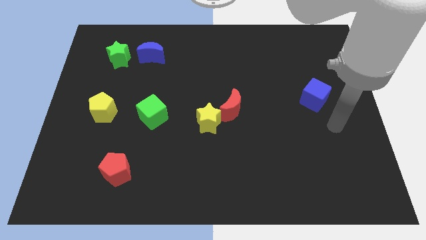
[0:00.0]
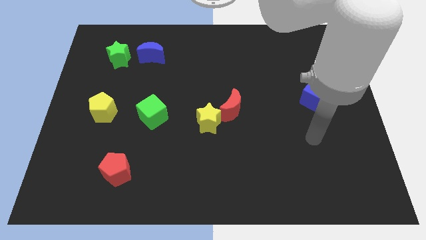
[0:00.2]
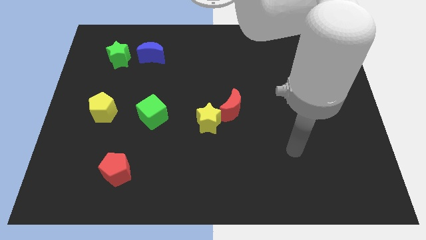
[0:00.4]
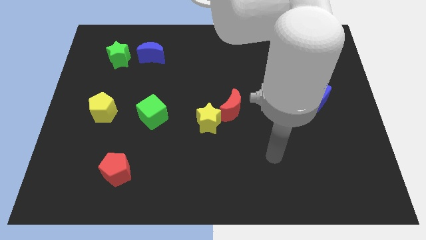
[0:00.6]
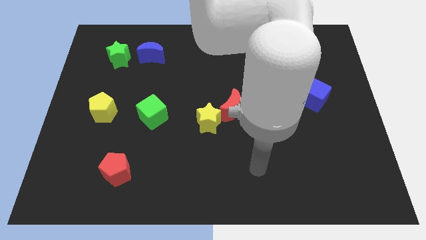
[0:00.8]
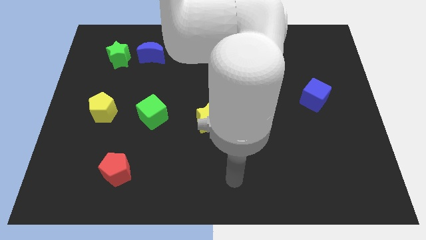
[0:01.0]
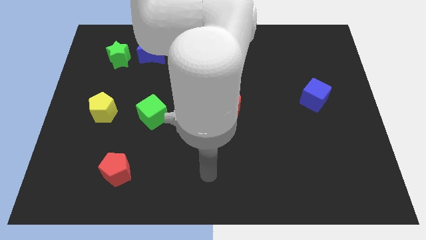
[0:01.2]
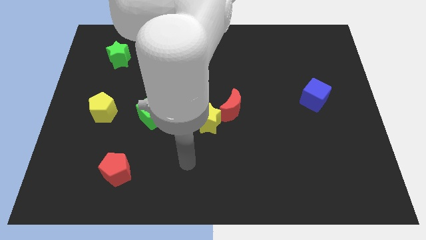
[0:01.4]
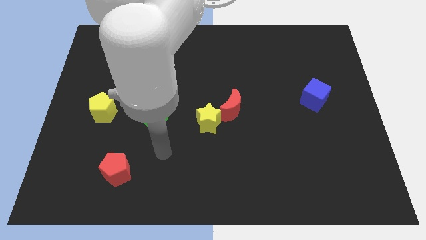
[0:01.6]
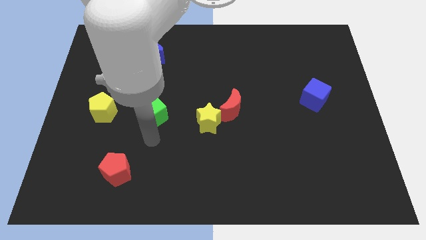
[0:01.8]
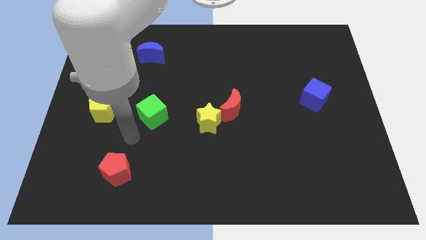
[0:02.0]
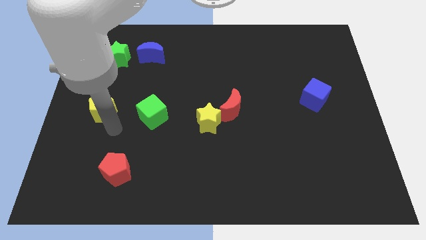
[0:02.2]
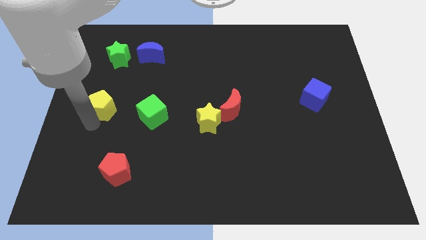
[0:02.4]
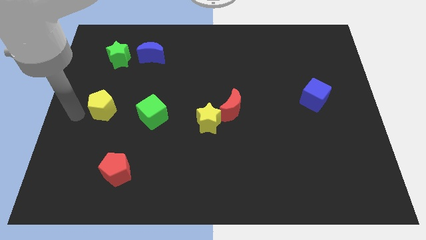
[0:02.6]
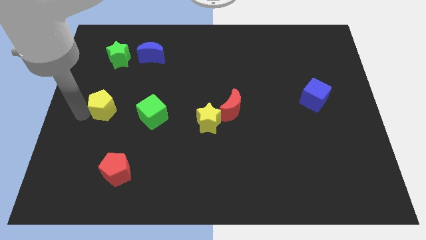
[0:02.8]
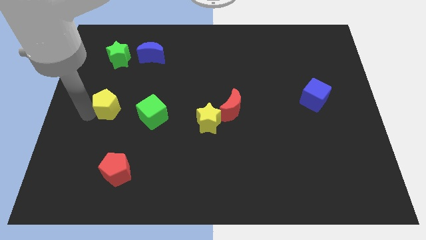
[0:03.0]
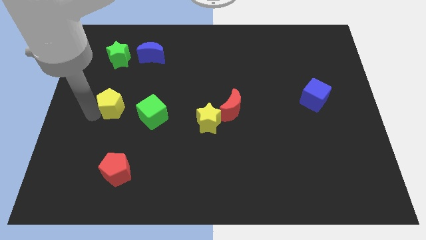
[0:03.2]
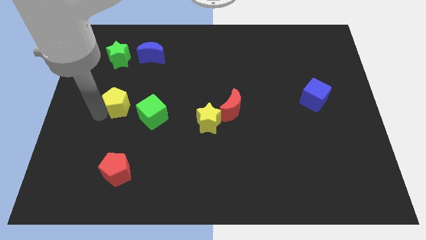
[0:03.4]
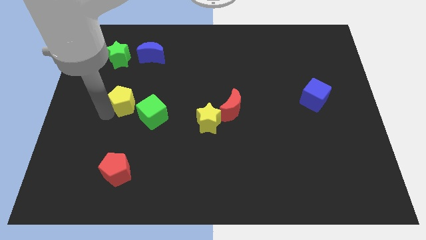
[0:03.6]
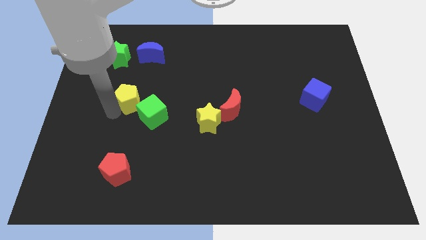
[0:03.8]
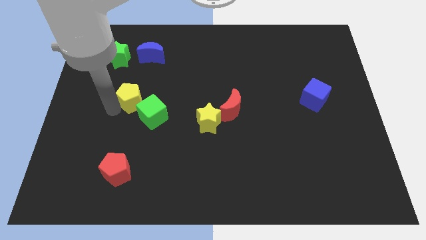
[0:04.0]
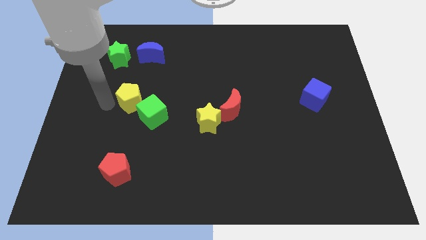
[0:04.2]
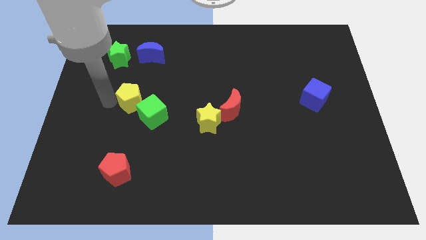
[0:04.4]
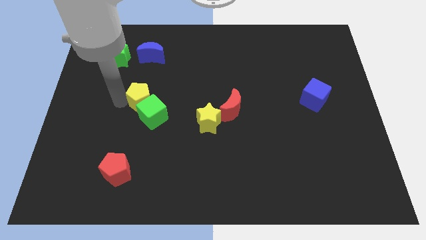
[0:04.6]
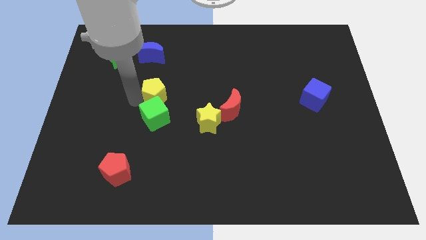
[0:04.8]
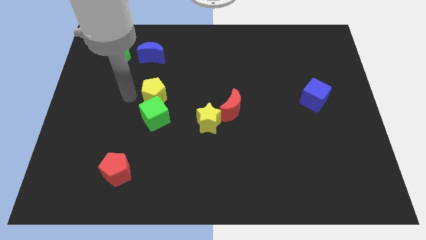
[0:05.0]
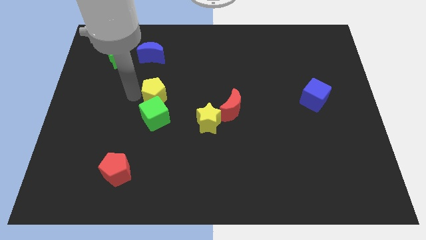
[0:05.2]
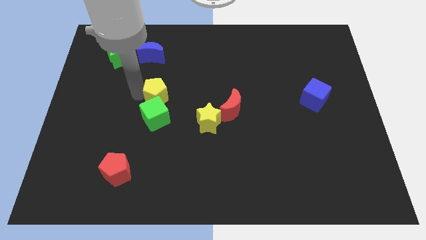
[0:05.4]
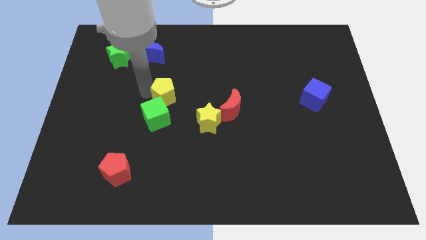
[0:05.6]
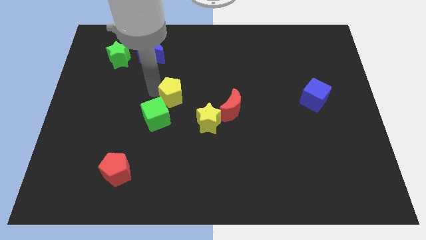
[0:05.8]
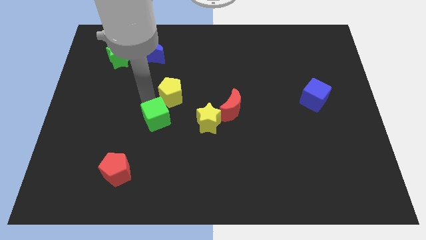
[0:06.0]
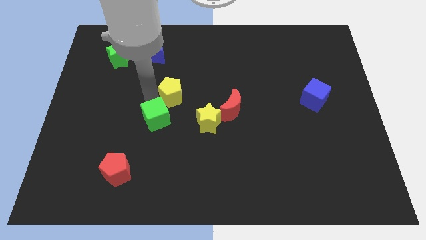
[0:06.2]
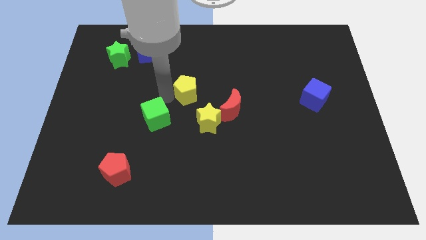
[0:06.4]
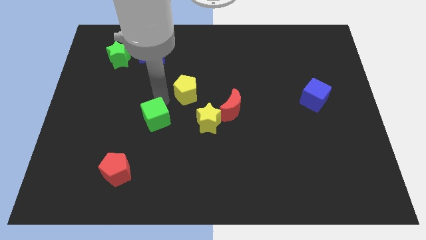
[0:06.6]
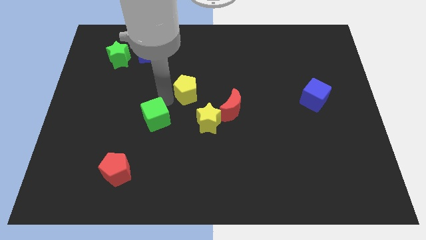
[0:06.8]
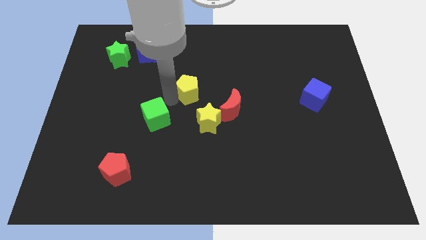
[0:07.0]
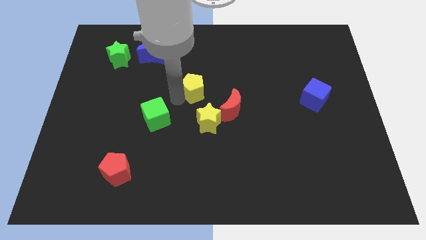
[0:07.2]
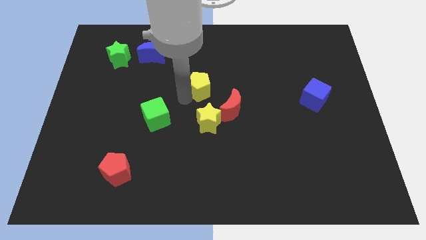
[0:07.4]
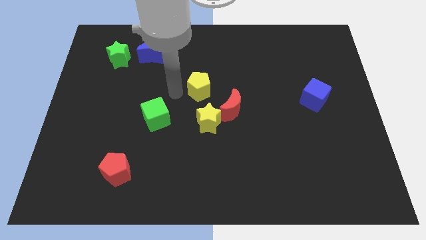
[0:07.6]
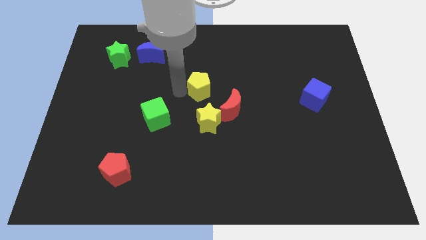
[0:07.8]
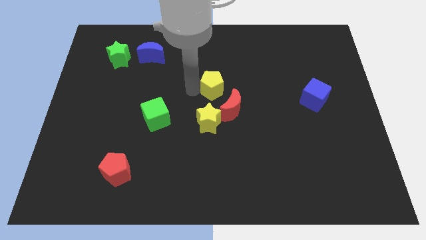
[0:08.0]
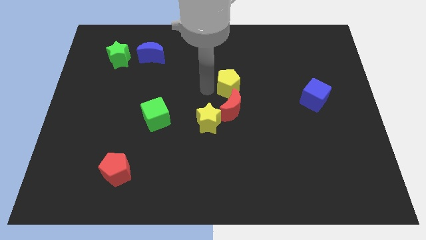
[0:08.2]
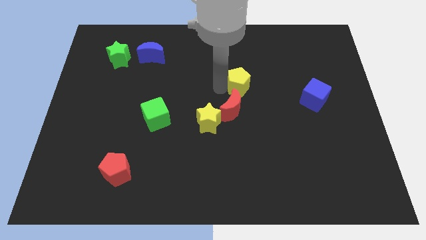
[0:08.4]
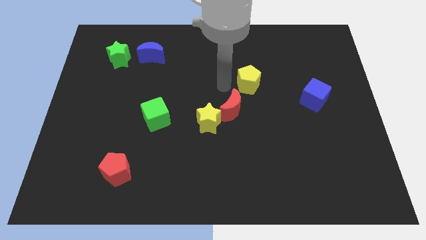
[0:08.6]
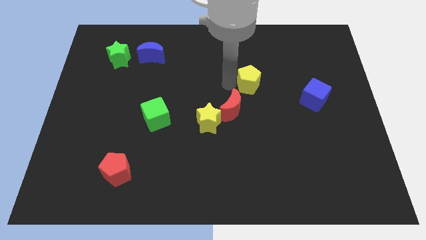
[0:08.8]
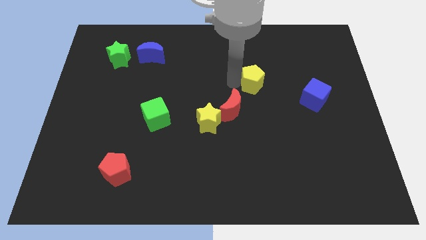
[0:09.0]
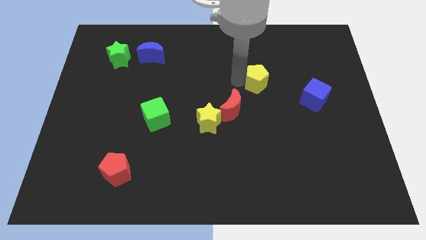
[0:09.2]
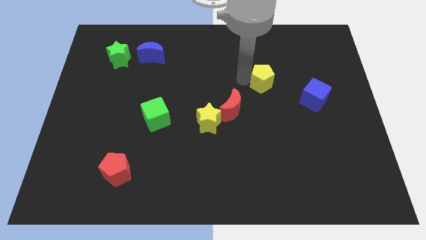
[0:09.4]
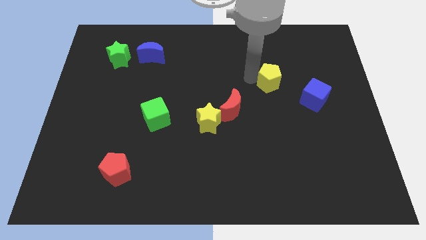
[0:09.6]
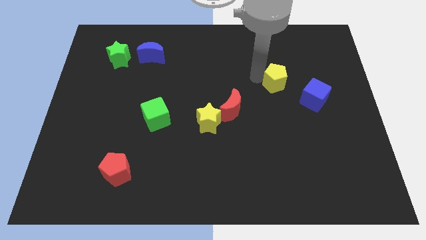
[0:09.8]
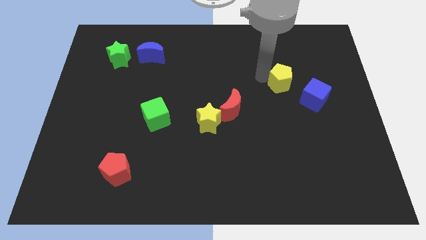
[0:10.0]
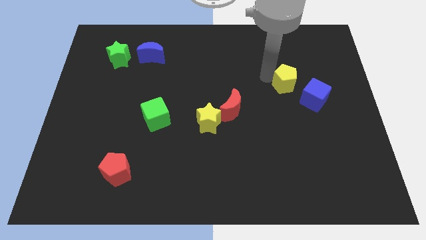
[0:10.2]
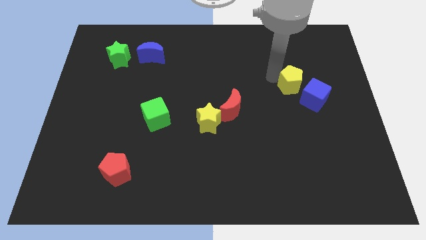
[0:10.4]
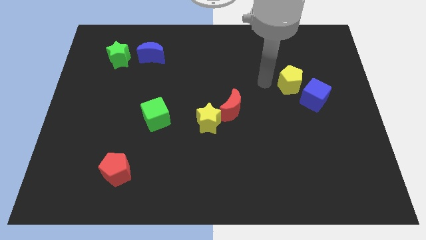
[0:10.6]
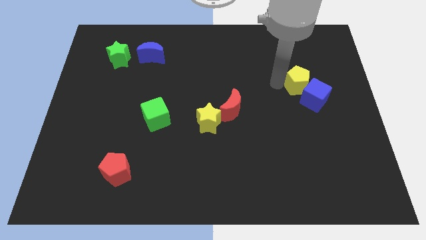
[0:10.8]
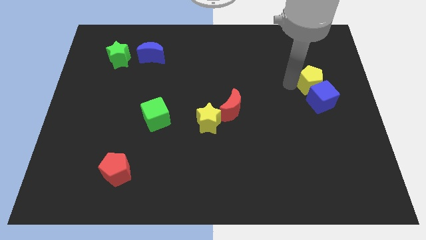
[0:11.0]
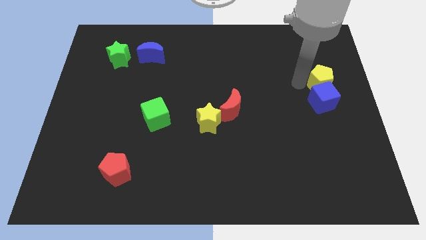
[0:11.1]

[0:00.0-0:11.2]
slide the yellow pentagon to the right side of the board

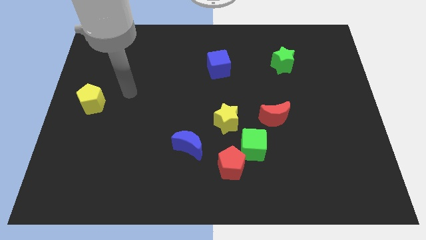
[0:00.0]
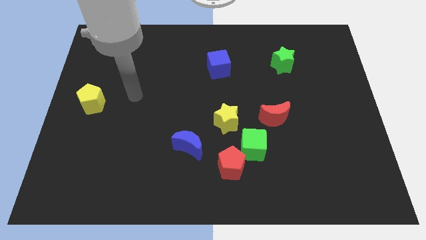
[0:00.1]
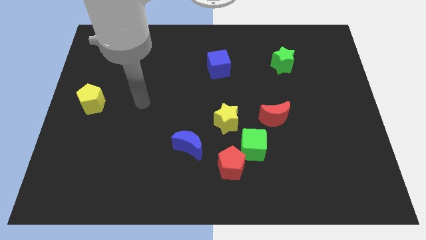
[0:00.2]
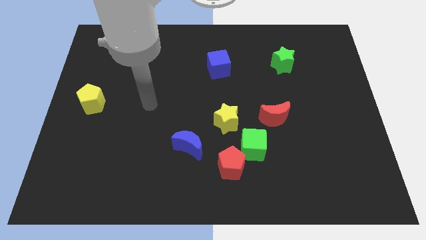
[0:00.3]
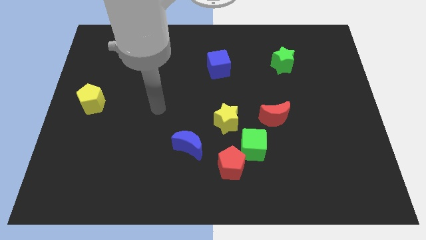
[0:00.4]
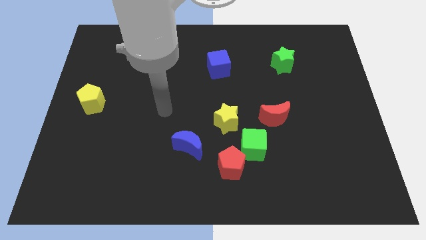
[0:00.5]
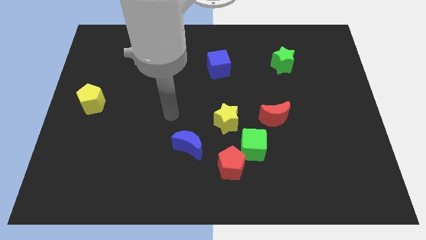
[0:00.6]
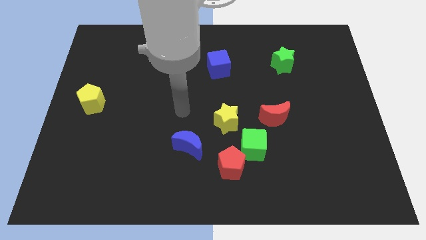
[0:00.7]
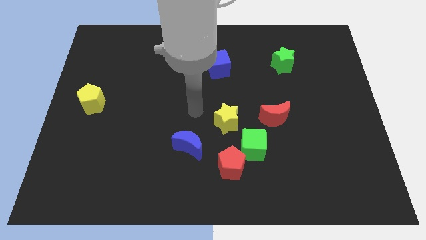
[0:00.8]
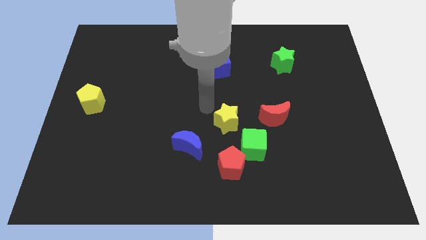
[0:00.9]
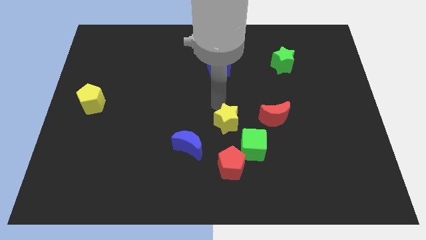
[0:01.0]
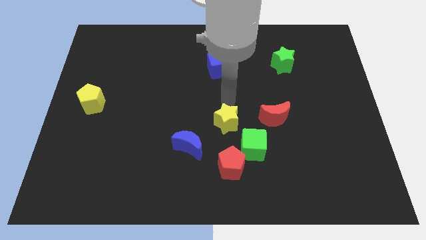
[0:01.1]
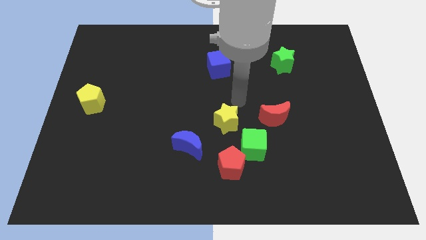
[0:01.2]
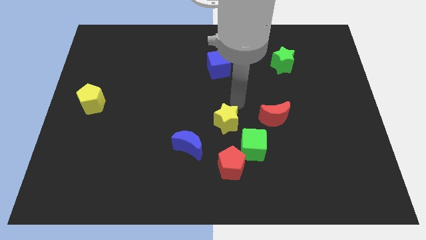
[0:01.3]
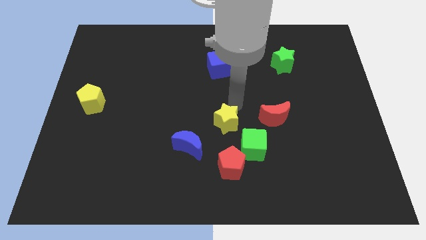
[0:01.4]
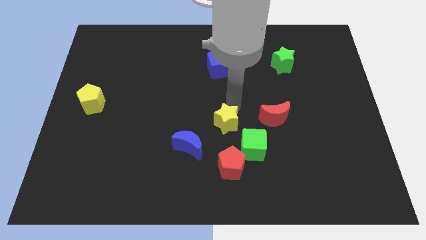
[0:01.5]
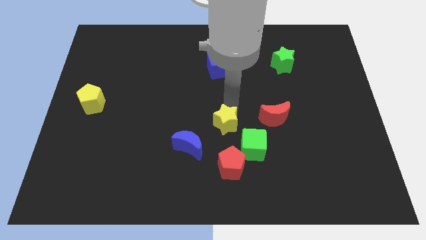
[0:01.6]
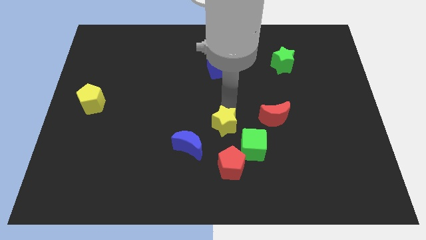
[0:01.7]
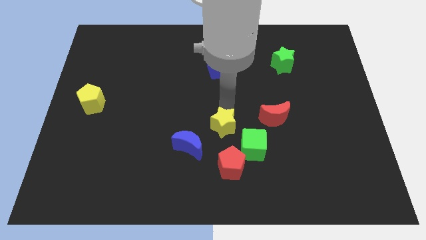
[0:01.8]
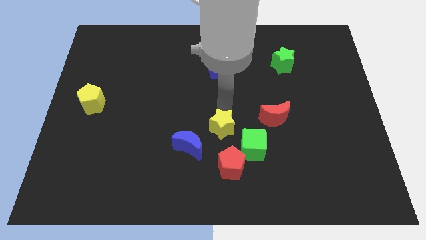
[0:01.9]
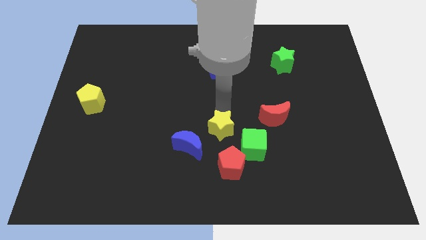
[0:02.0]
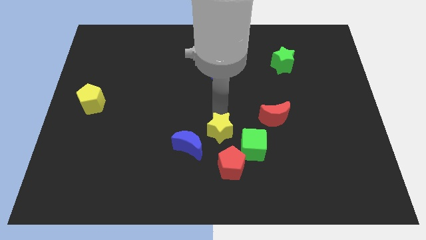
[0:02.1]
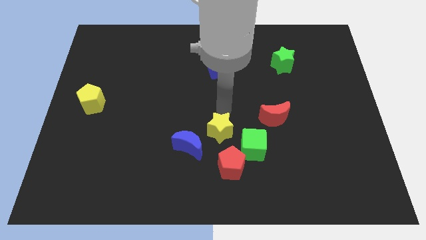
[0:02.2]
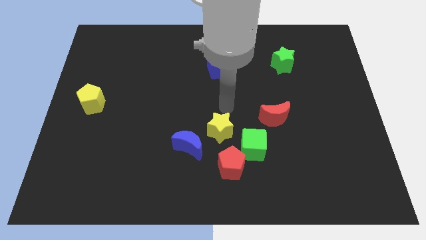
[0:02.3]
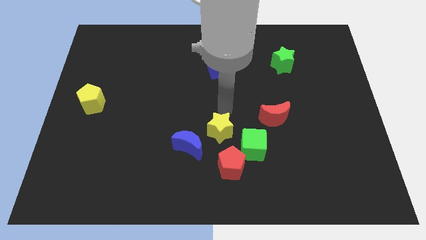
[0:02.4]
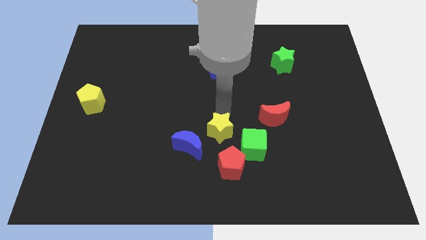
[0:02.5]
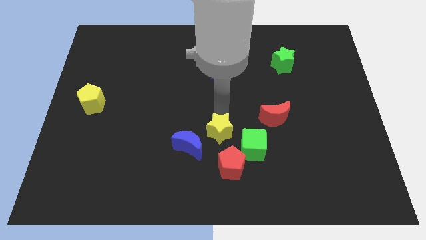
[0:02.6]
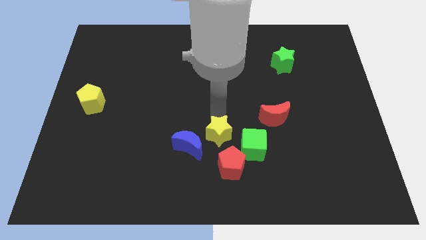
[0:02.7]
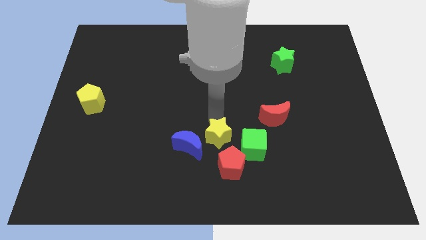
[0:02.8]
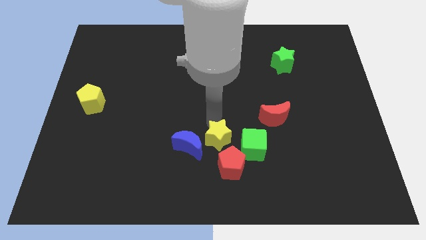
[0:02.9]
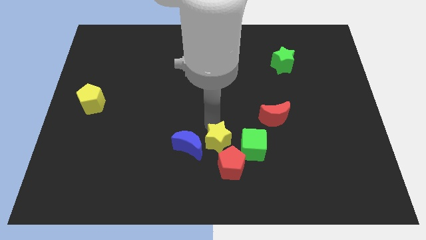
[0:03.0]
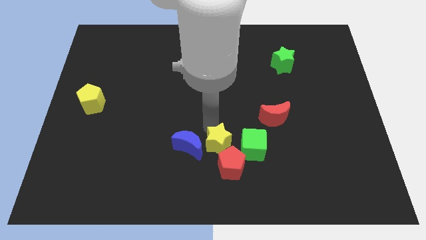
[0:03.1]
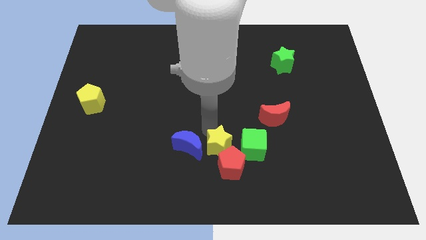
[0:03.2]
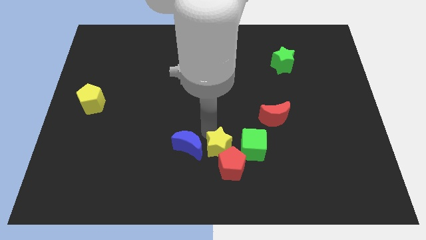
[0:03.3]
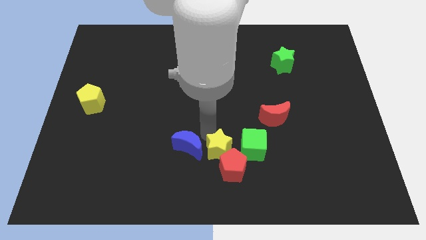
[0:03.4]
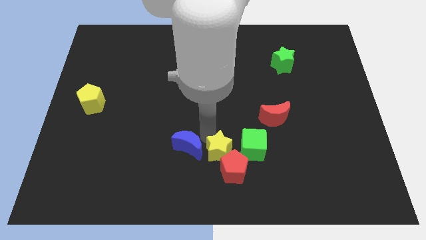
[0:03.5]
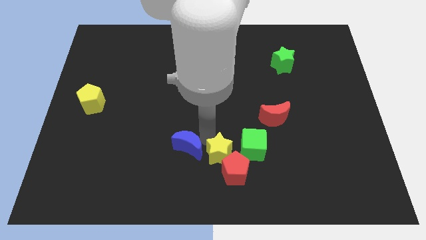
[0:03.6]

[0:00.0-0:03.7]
slide the yellow star to the bottom side
